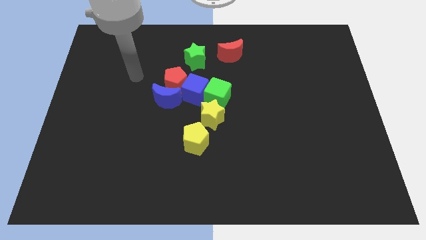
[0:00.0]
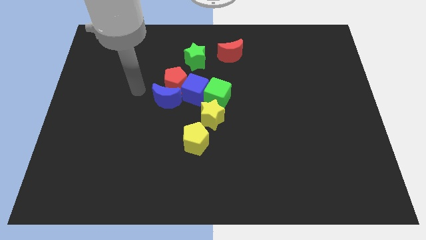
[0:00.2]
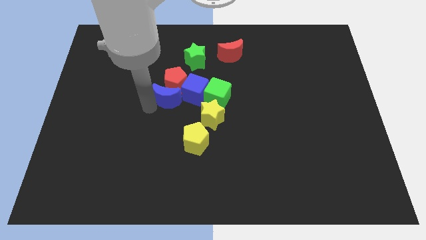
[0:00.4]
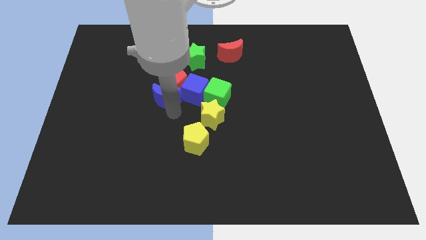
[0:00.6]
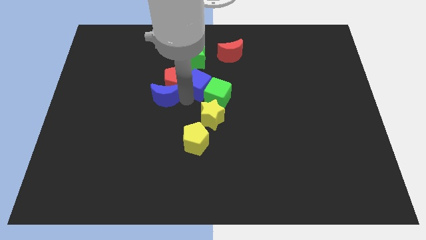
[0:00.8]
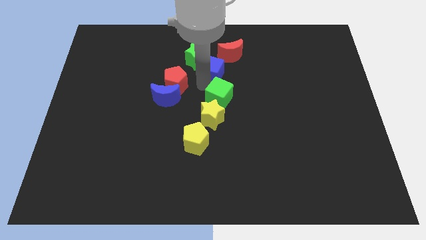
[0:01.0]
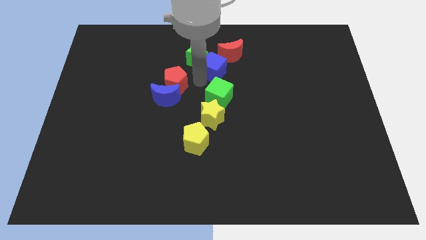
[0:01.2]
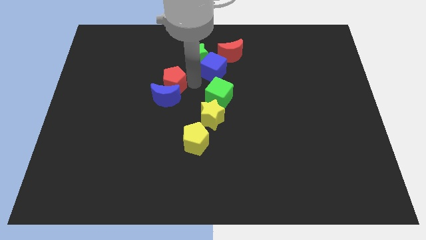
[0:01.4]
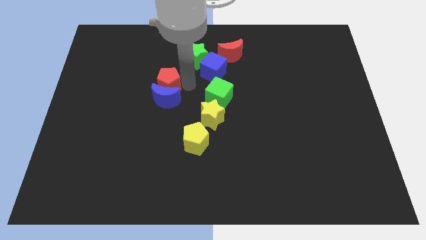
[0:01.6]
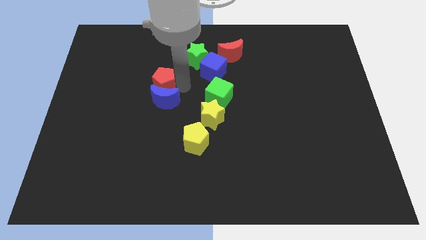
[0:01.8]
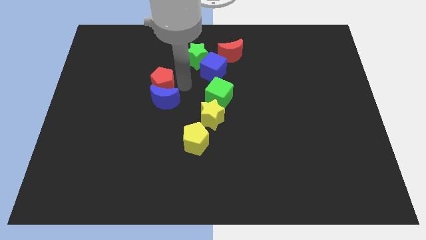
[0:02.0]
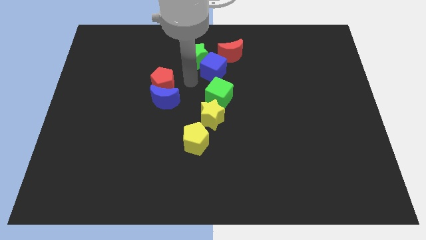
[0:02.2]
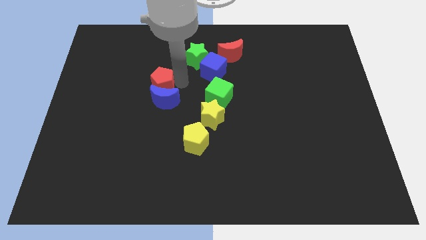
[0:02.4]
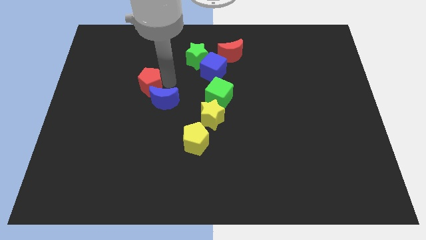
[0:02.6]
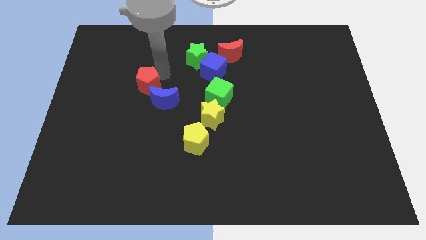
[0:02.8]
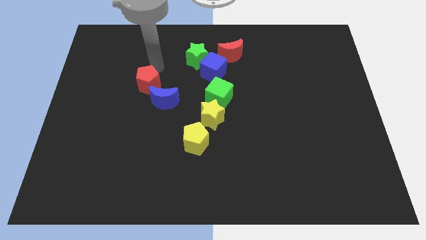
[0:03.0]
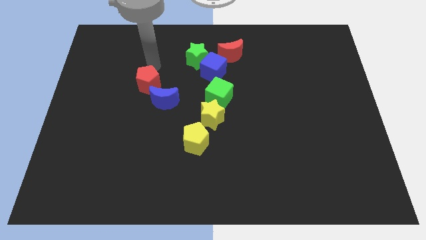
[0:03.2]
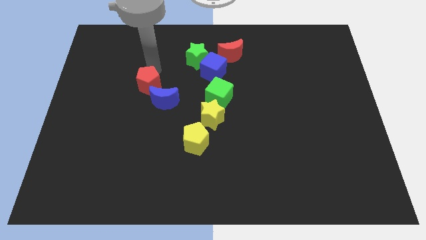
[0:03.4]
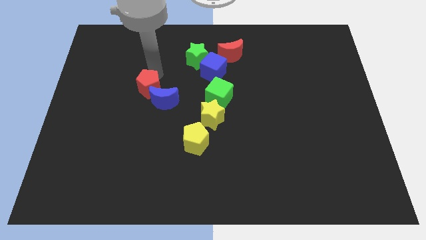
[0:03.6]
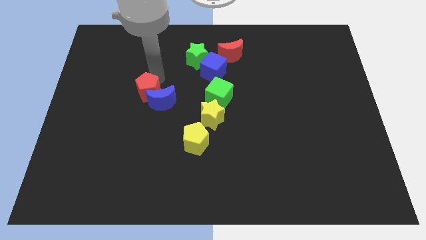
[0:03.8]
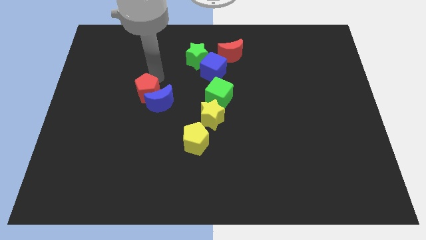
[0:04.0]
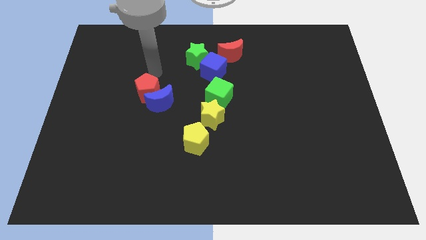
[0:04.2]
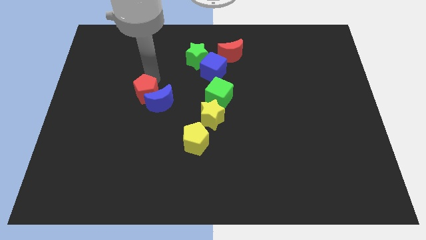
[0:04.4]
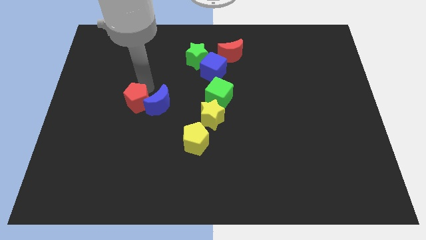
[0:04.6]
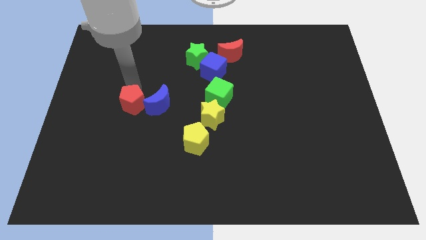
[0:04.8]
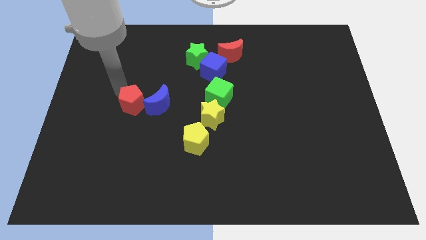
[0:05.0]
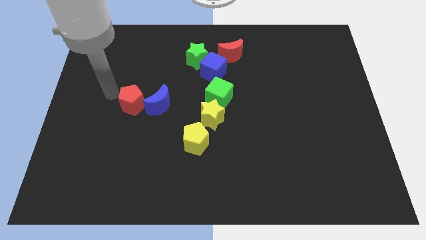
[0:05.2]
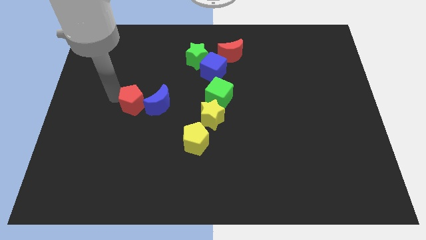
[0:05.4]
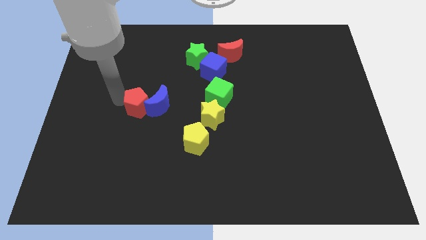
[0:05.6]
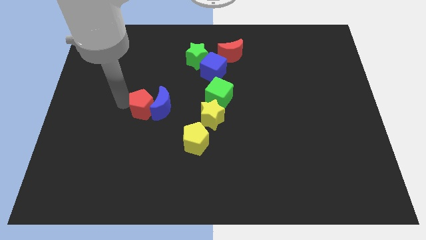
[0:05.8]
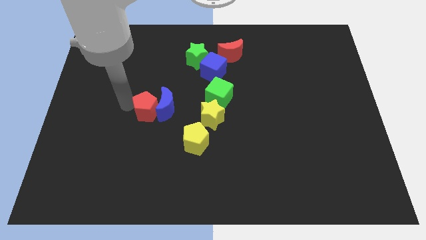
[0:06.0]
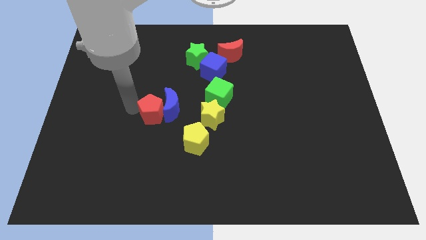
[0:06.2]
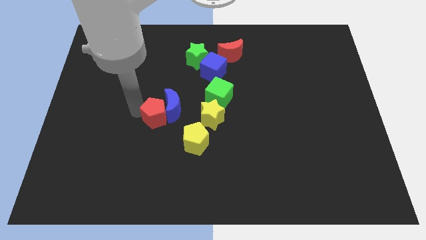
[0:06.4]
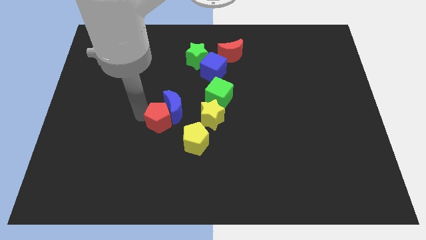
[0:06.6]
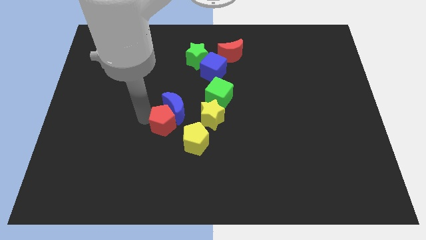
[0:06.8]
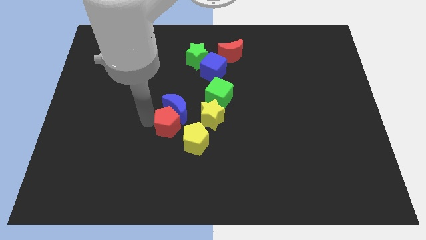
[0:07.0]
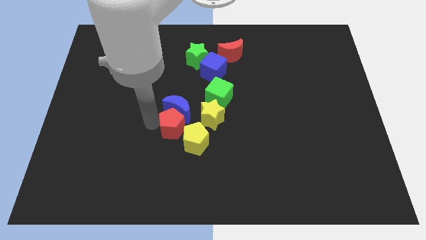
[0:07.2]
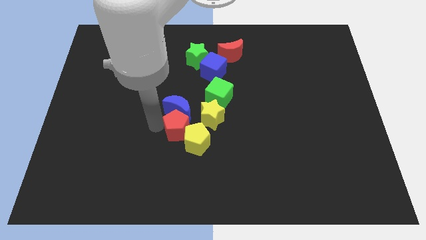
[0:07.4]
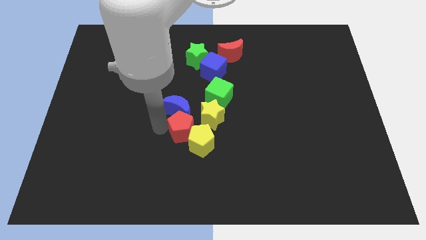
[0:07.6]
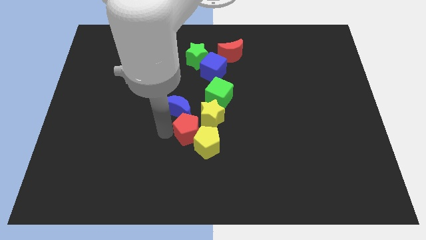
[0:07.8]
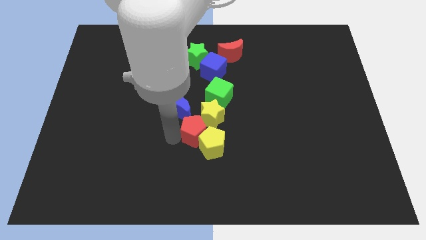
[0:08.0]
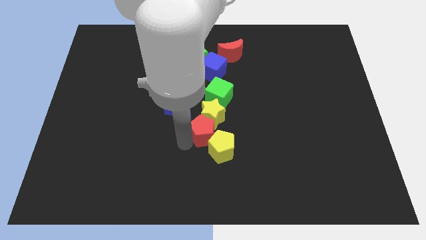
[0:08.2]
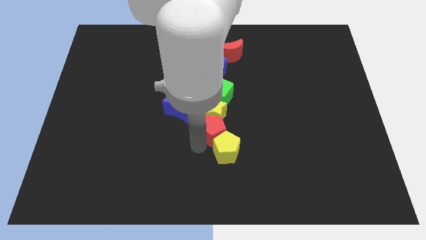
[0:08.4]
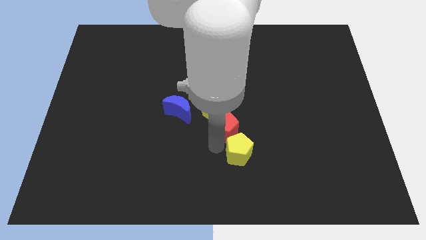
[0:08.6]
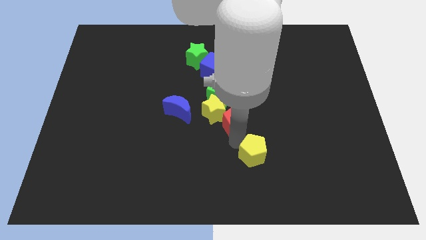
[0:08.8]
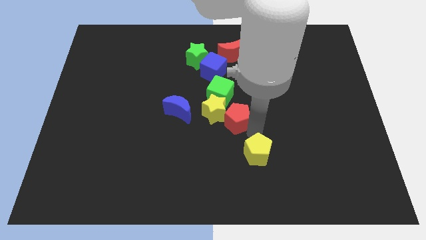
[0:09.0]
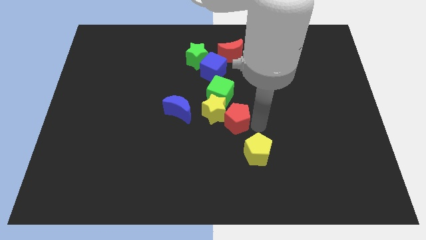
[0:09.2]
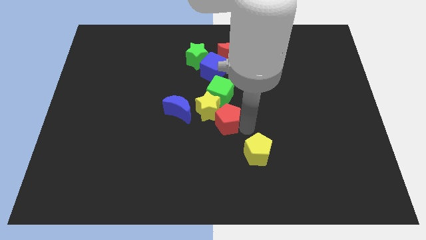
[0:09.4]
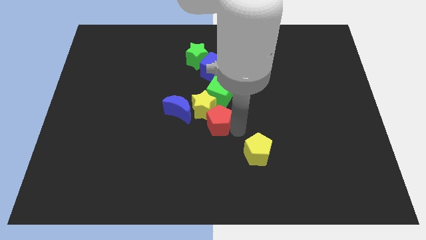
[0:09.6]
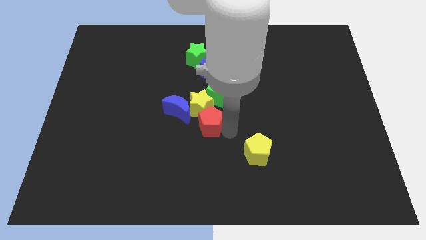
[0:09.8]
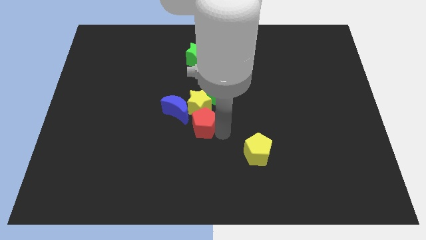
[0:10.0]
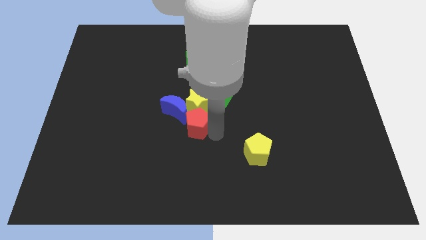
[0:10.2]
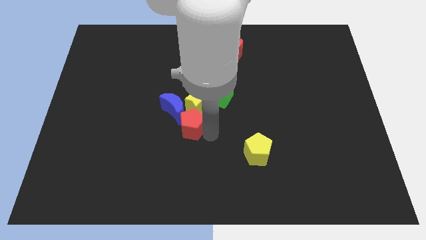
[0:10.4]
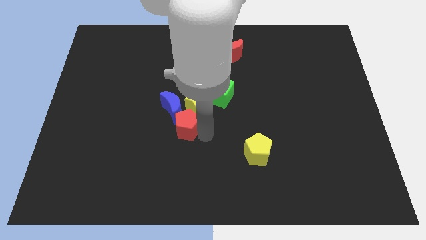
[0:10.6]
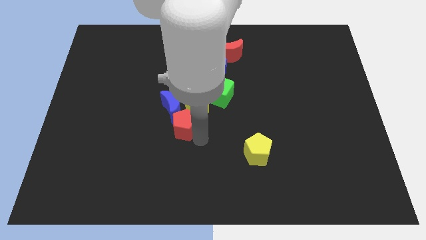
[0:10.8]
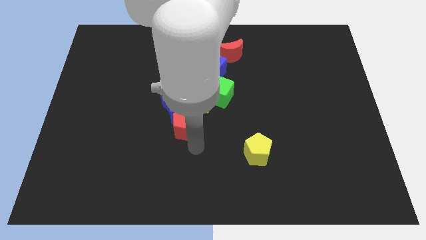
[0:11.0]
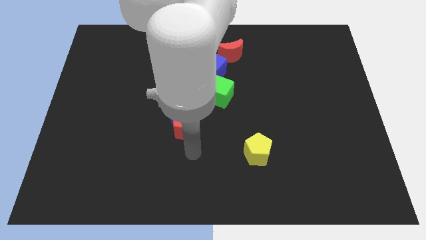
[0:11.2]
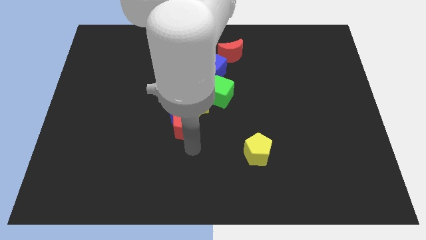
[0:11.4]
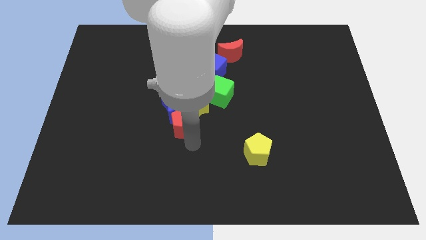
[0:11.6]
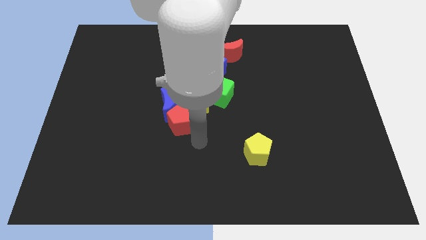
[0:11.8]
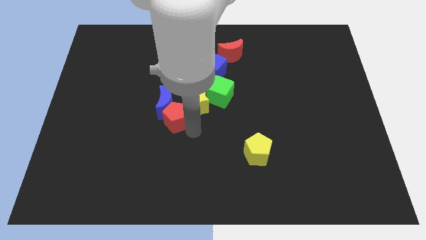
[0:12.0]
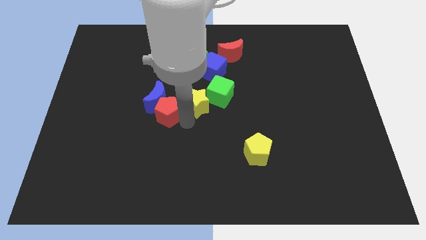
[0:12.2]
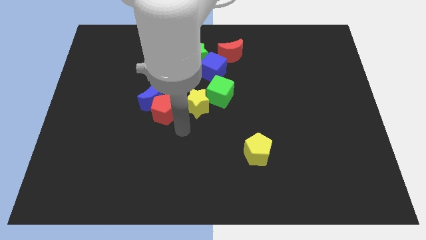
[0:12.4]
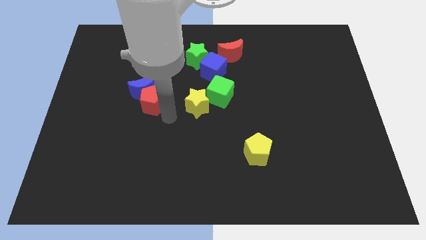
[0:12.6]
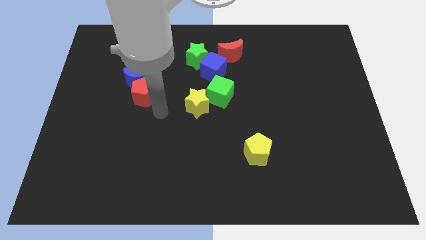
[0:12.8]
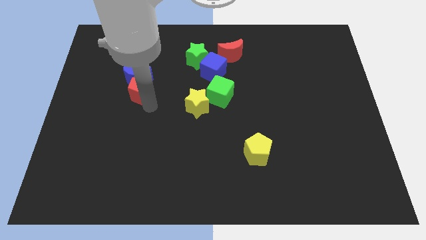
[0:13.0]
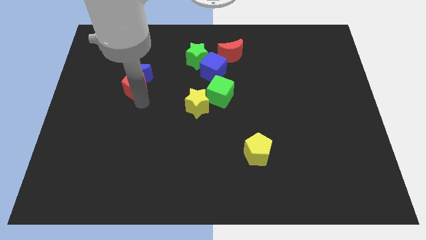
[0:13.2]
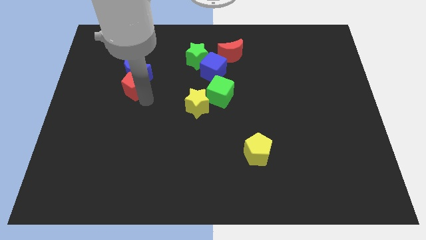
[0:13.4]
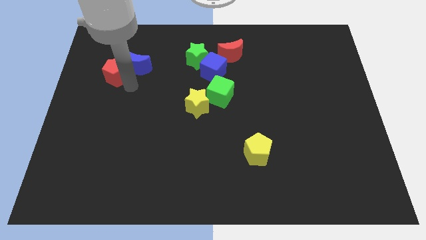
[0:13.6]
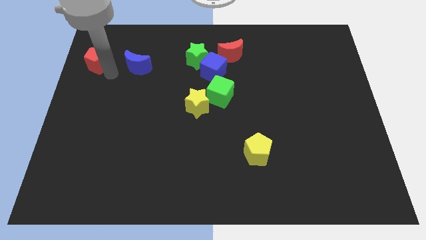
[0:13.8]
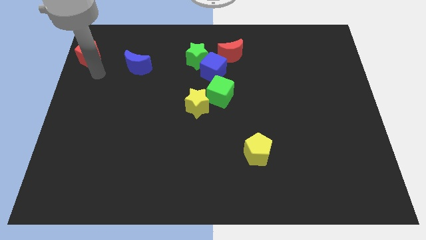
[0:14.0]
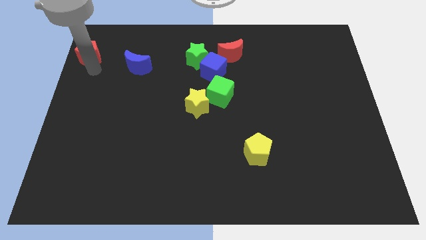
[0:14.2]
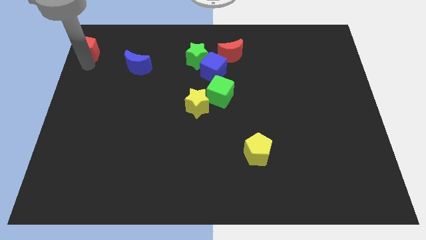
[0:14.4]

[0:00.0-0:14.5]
push the red pentagon to the top left of the board
